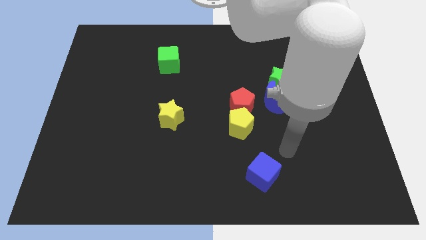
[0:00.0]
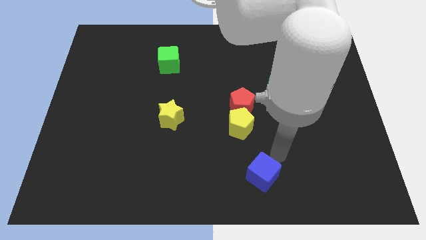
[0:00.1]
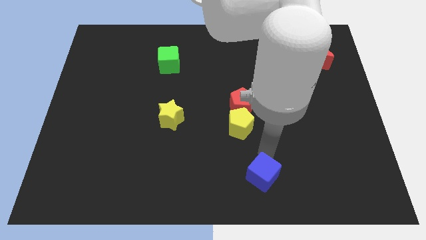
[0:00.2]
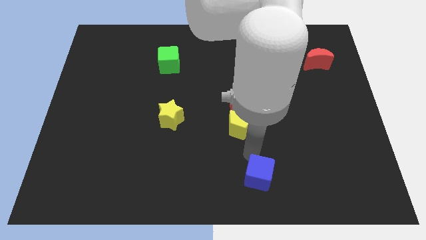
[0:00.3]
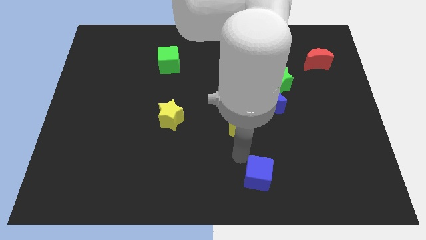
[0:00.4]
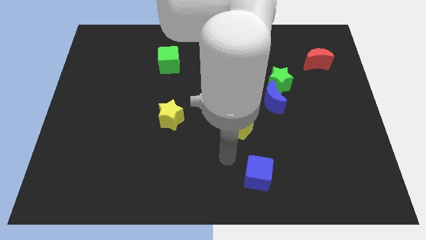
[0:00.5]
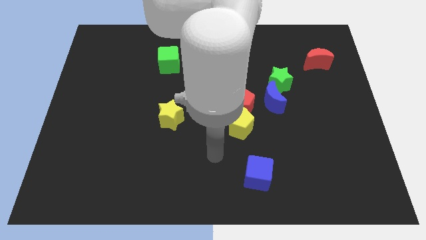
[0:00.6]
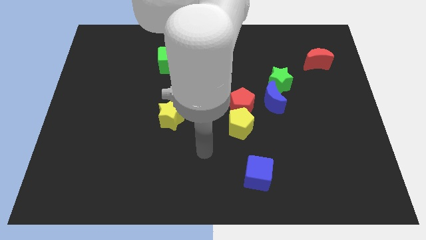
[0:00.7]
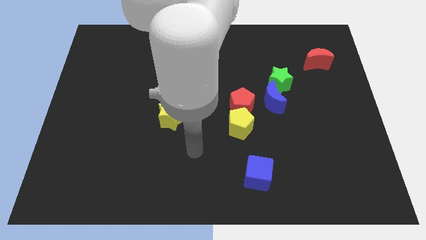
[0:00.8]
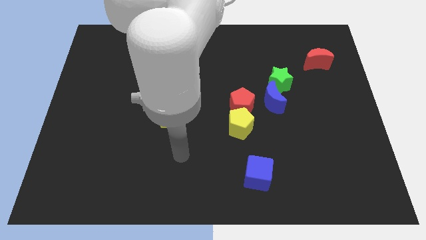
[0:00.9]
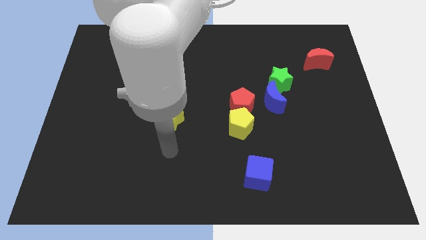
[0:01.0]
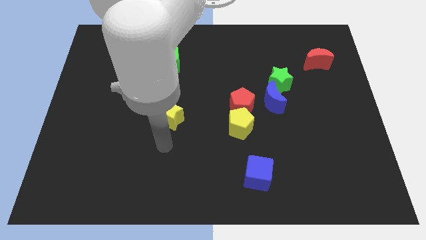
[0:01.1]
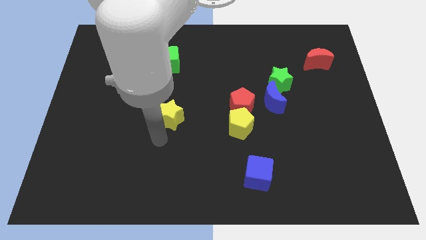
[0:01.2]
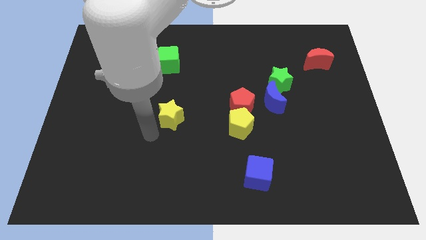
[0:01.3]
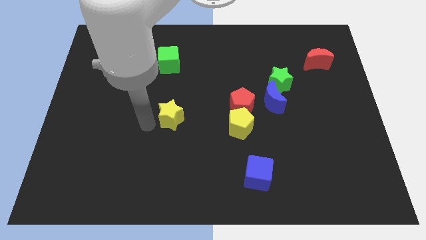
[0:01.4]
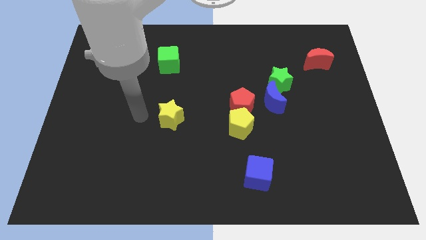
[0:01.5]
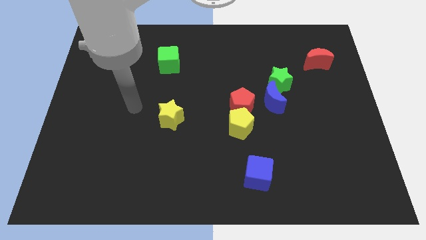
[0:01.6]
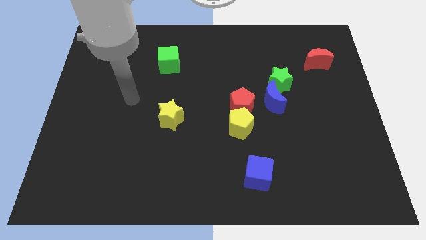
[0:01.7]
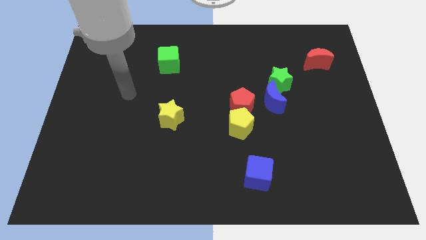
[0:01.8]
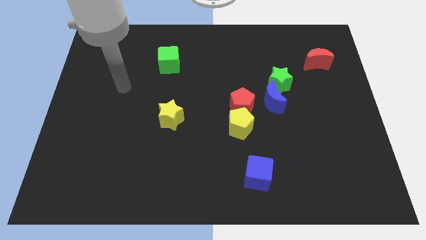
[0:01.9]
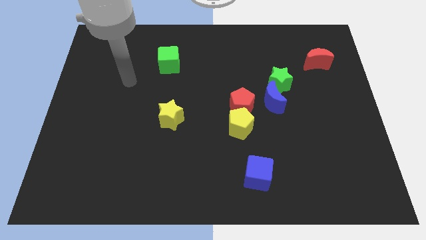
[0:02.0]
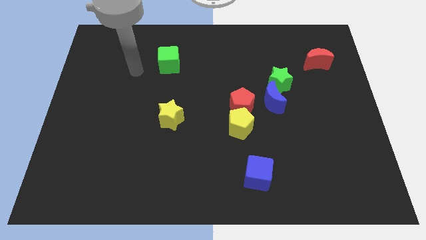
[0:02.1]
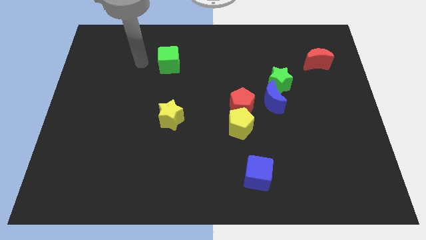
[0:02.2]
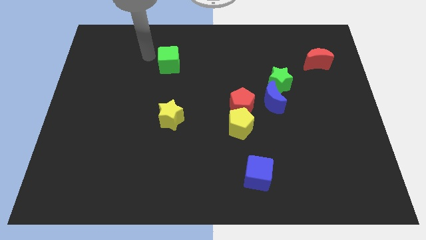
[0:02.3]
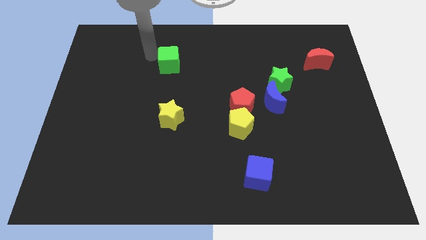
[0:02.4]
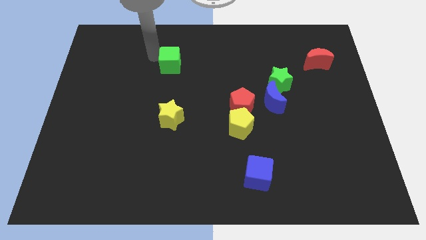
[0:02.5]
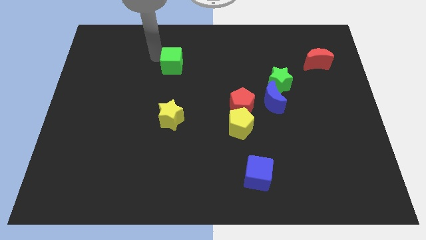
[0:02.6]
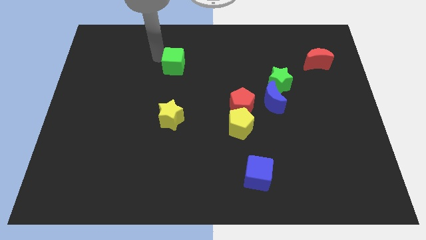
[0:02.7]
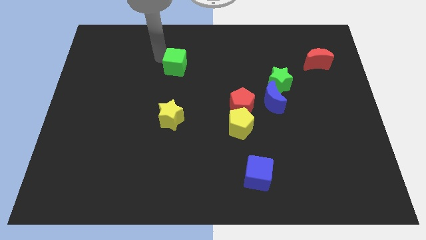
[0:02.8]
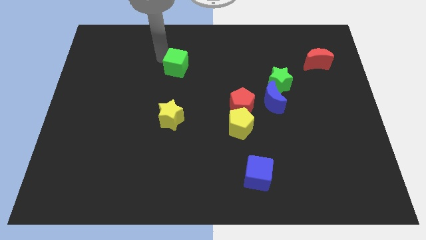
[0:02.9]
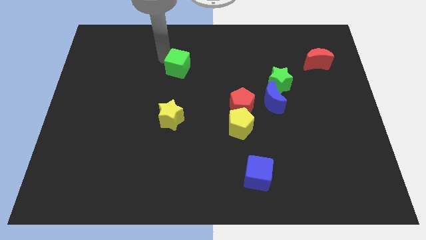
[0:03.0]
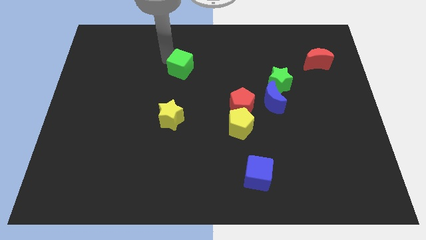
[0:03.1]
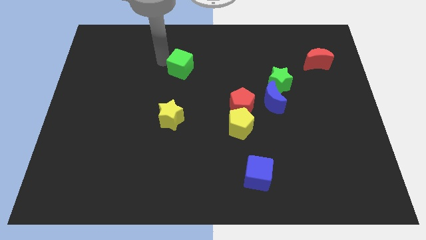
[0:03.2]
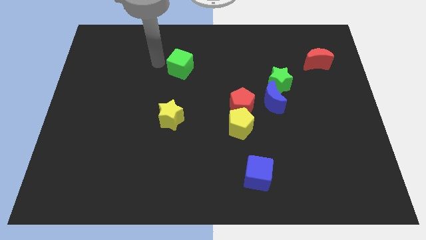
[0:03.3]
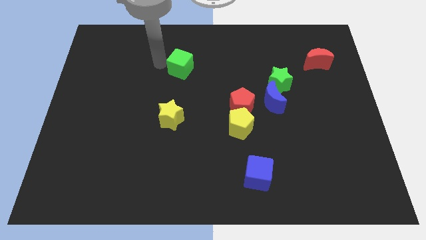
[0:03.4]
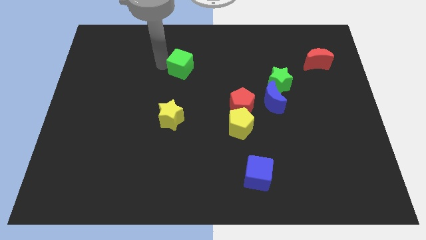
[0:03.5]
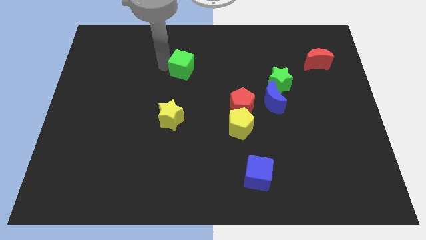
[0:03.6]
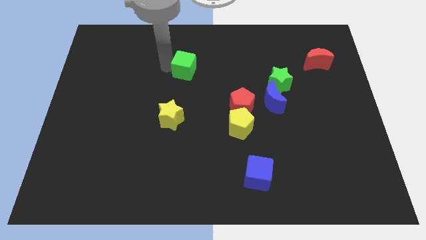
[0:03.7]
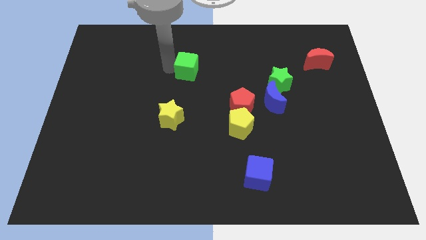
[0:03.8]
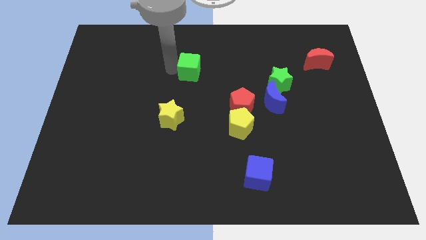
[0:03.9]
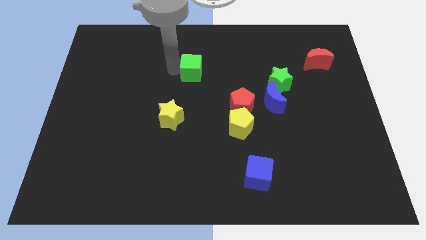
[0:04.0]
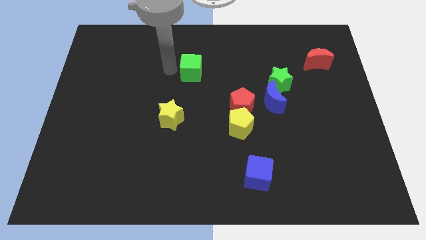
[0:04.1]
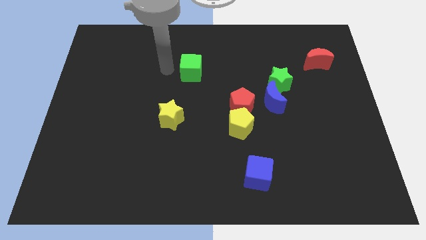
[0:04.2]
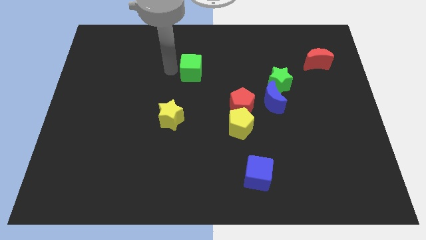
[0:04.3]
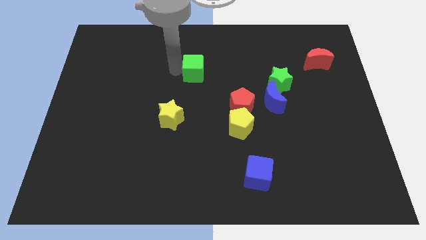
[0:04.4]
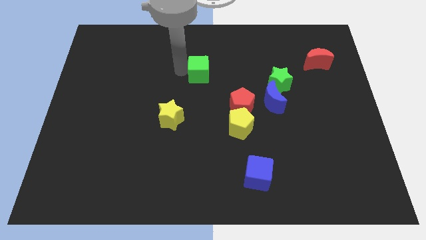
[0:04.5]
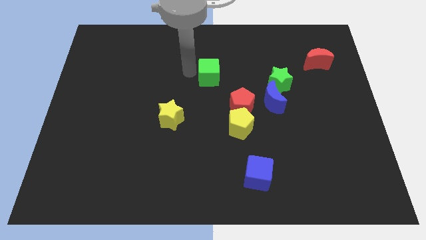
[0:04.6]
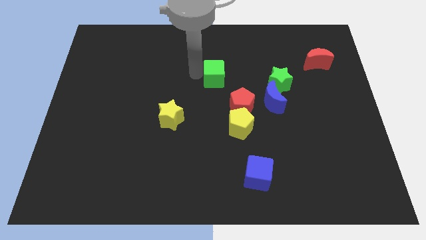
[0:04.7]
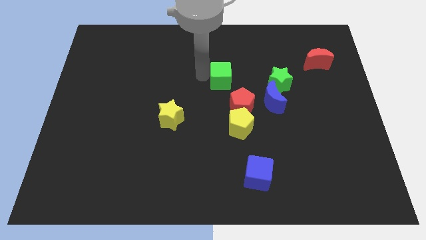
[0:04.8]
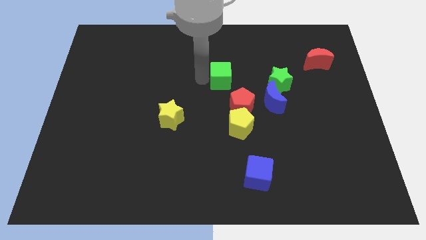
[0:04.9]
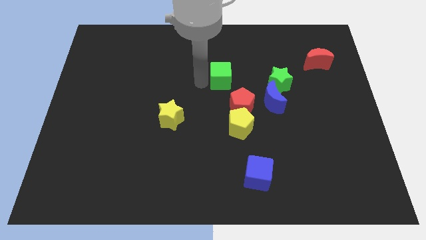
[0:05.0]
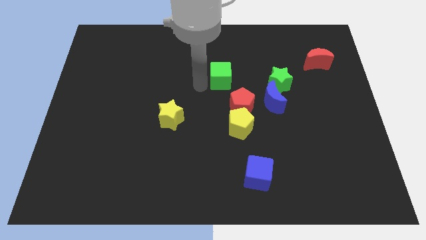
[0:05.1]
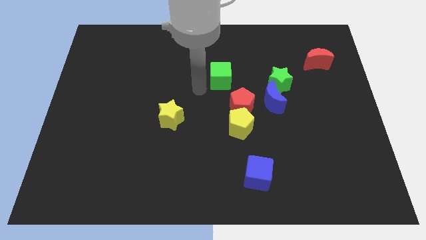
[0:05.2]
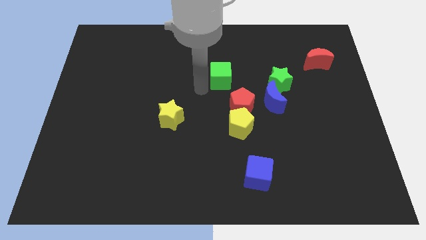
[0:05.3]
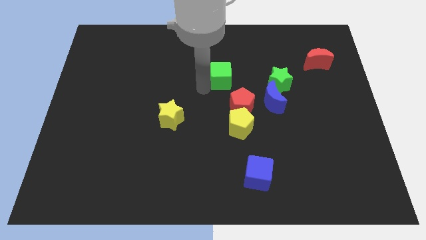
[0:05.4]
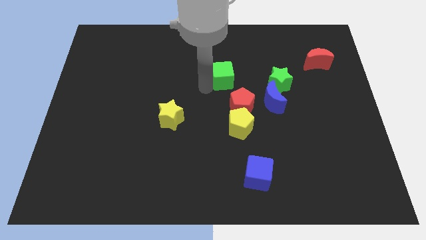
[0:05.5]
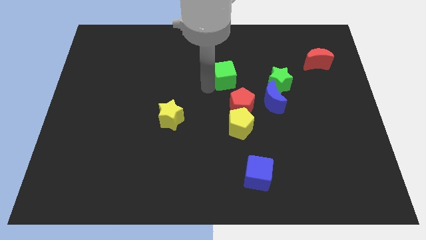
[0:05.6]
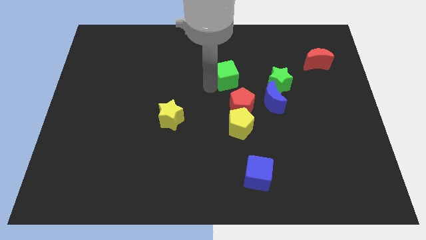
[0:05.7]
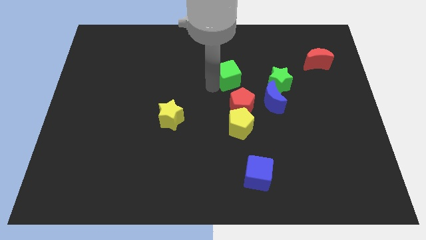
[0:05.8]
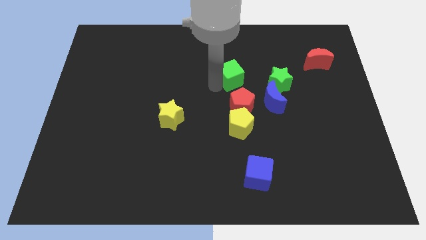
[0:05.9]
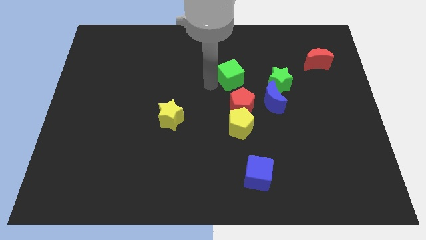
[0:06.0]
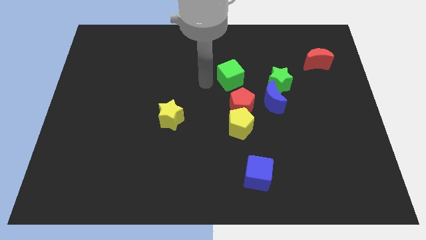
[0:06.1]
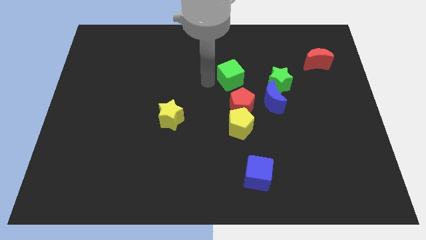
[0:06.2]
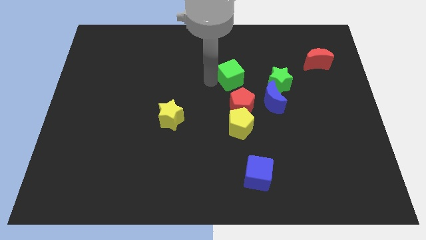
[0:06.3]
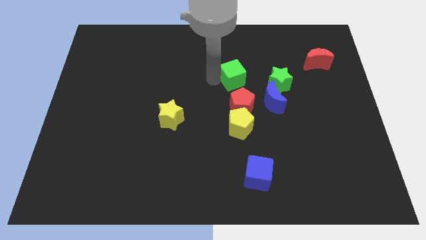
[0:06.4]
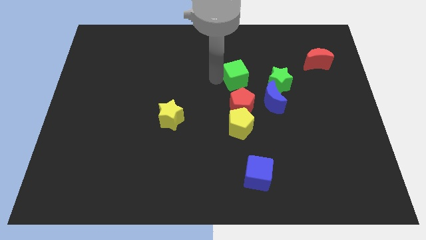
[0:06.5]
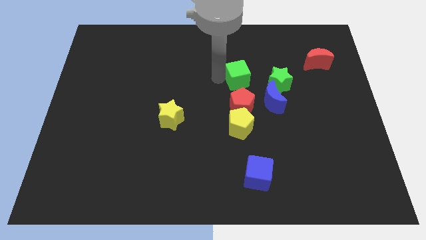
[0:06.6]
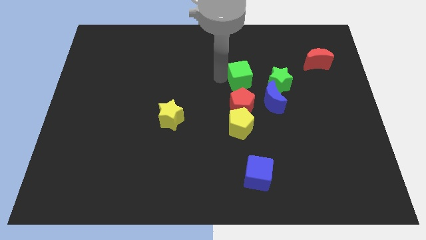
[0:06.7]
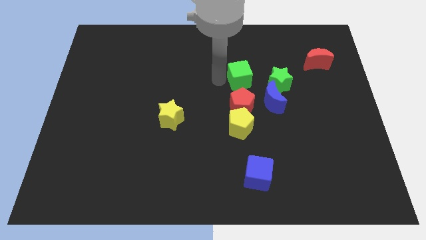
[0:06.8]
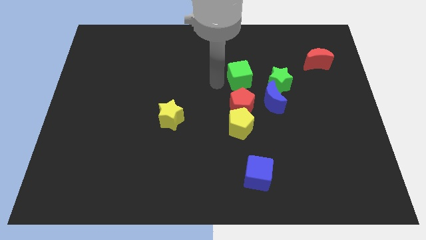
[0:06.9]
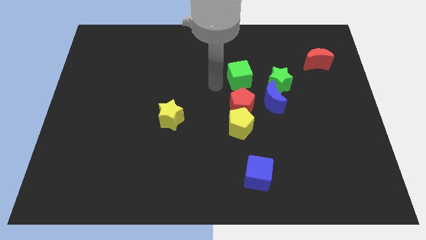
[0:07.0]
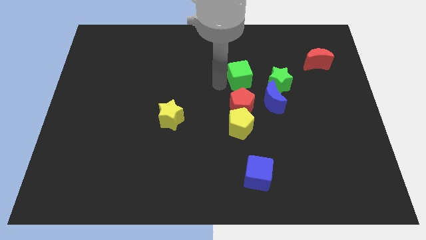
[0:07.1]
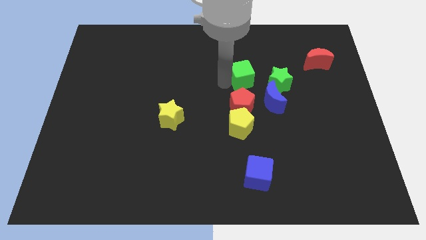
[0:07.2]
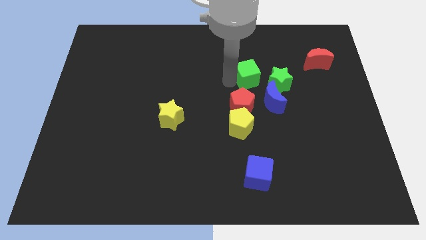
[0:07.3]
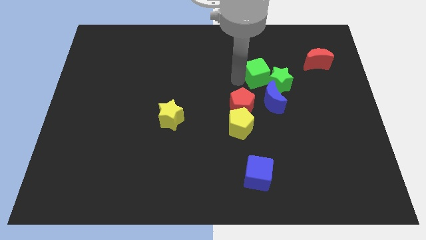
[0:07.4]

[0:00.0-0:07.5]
slide the green cube to the right

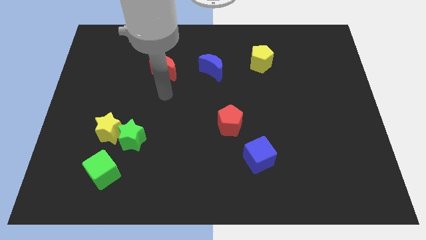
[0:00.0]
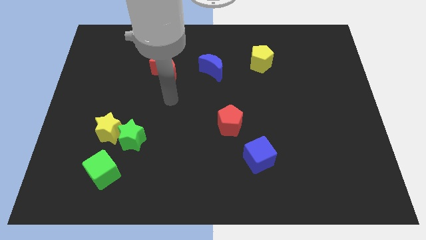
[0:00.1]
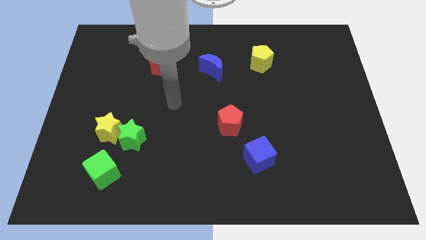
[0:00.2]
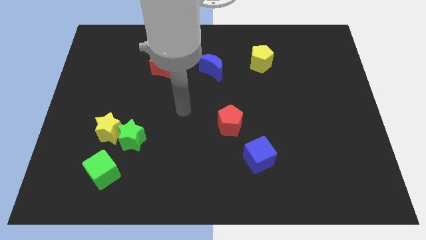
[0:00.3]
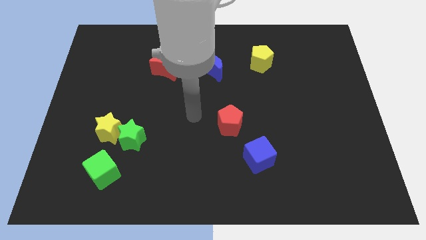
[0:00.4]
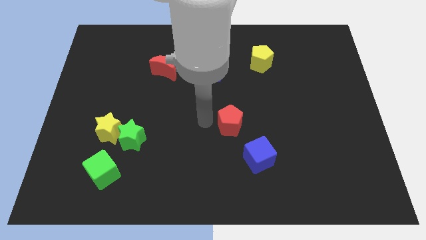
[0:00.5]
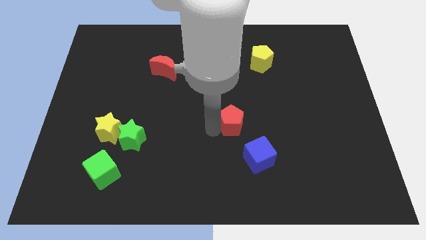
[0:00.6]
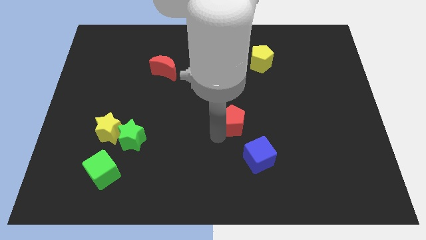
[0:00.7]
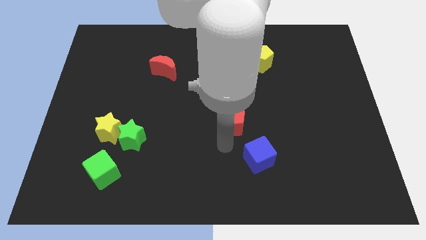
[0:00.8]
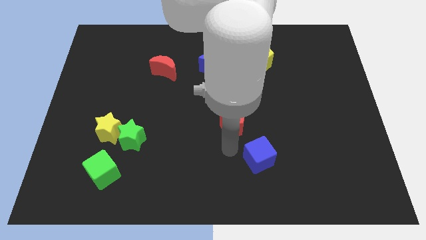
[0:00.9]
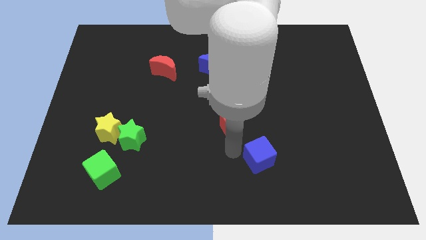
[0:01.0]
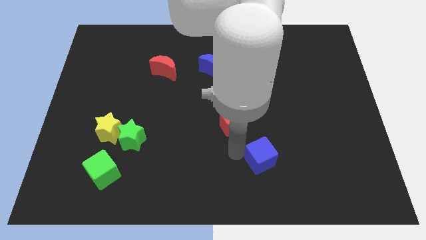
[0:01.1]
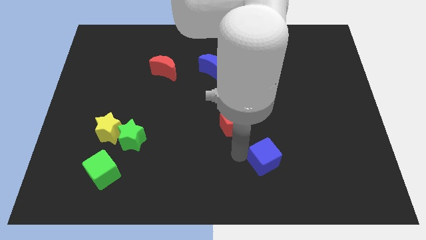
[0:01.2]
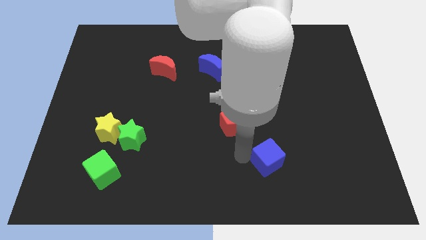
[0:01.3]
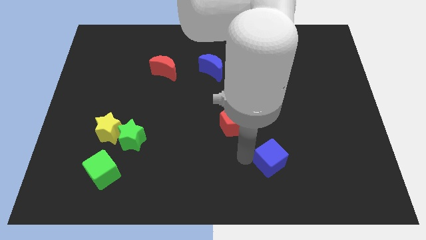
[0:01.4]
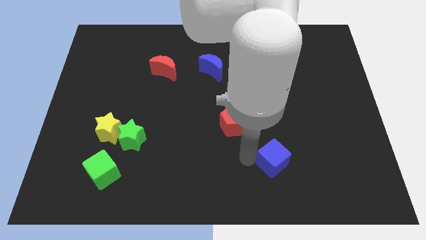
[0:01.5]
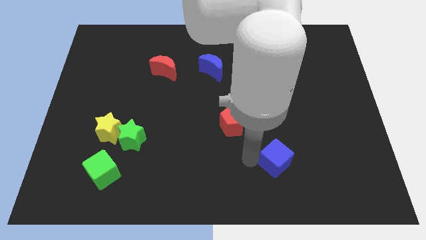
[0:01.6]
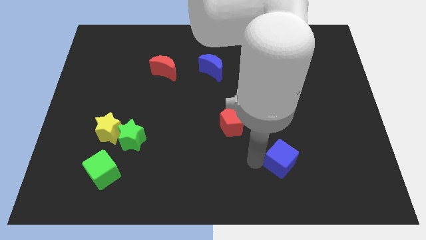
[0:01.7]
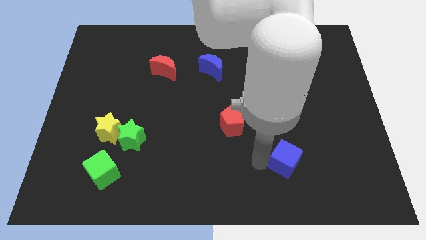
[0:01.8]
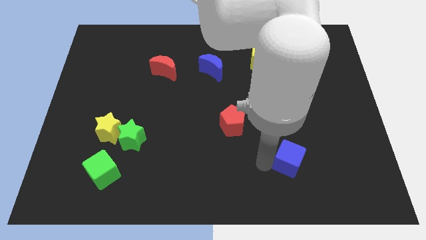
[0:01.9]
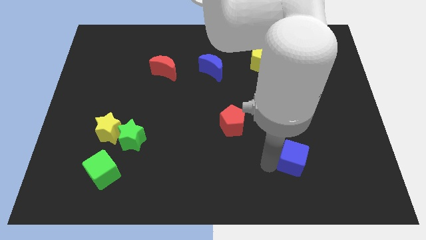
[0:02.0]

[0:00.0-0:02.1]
slightly slide the blue cube to the right
